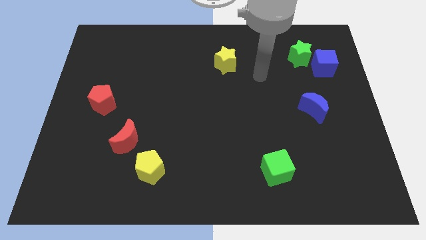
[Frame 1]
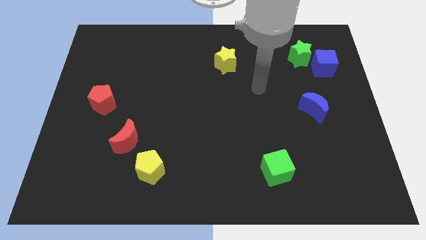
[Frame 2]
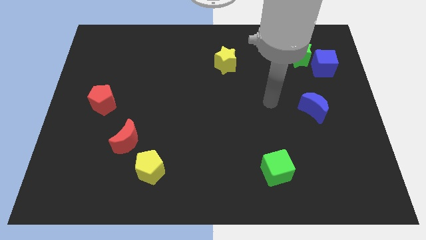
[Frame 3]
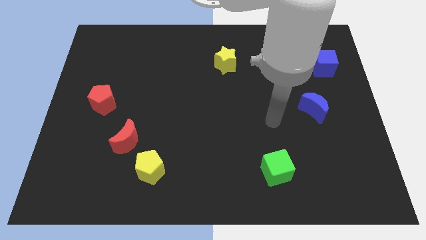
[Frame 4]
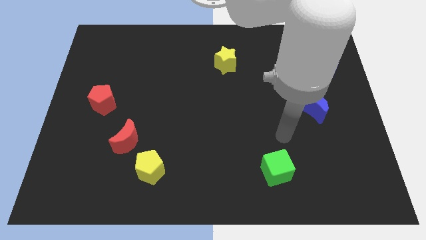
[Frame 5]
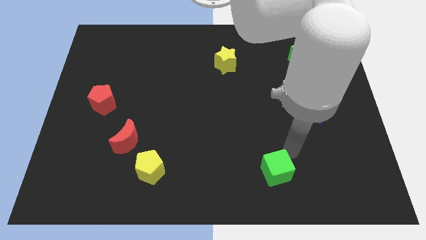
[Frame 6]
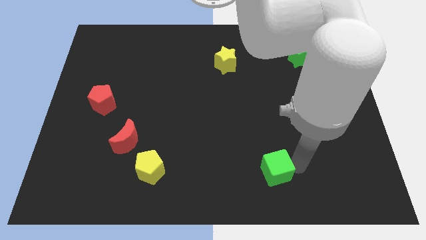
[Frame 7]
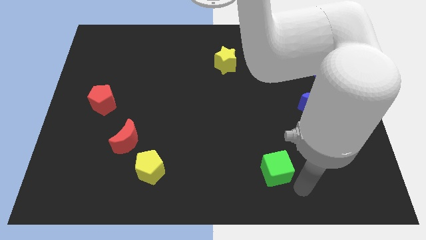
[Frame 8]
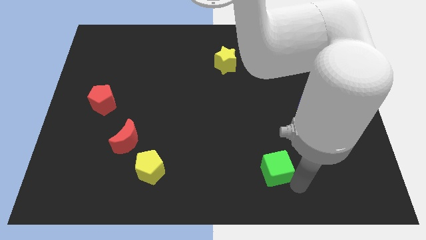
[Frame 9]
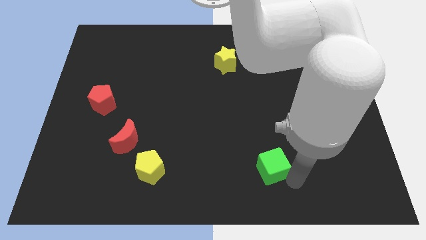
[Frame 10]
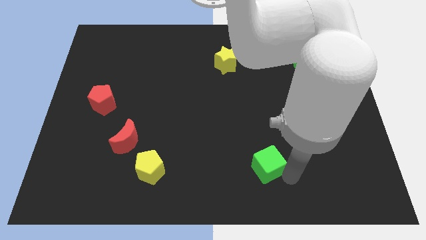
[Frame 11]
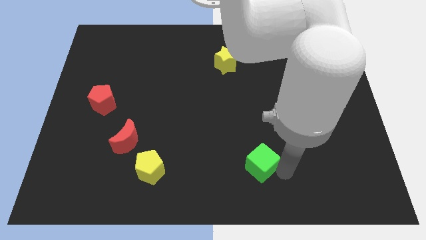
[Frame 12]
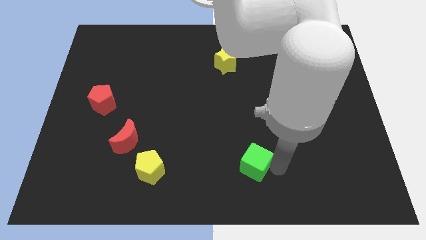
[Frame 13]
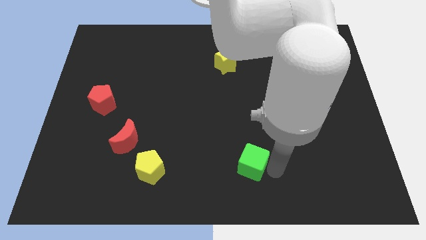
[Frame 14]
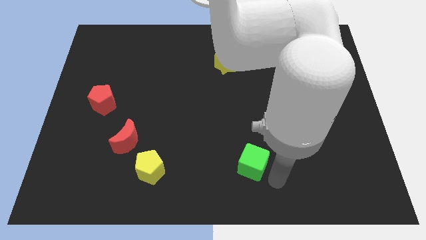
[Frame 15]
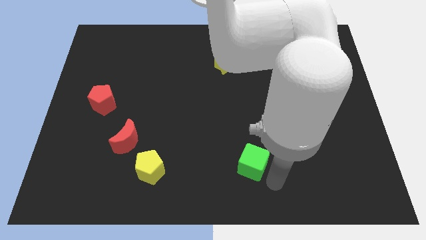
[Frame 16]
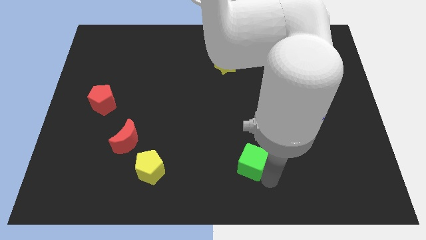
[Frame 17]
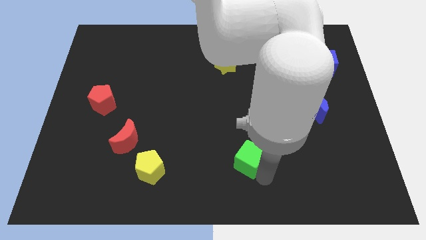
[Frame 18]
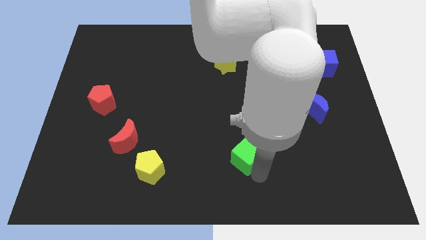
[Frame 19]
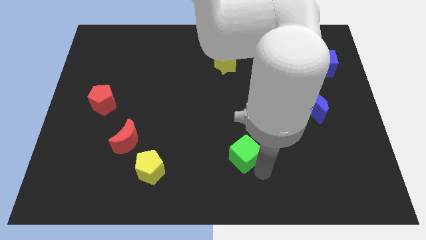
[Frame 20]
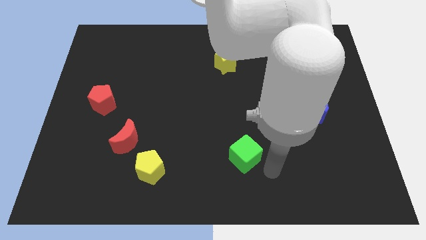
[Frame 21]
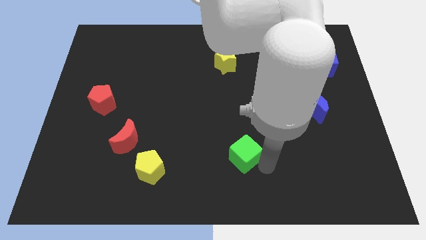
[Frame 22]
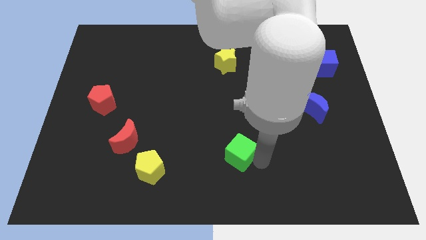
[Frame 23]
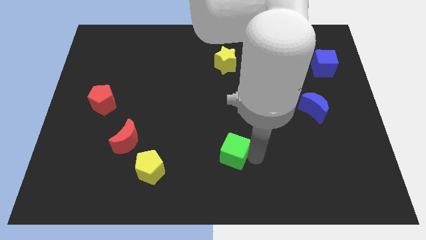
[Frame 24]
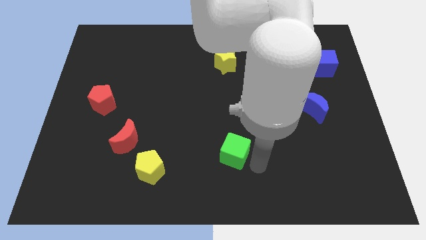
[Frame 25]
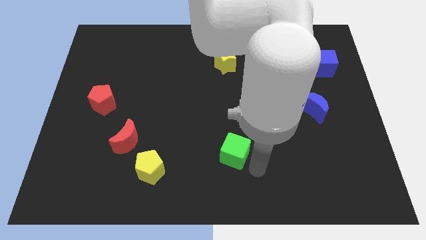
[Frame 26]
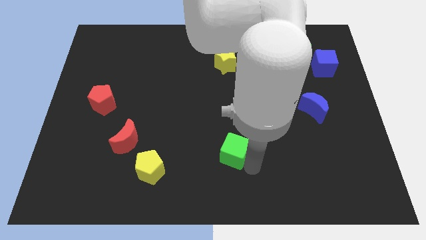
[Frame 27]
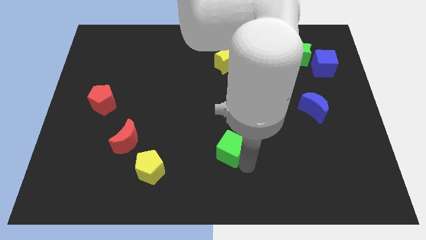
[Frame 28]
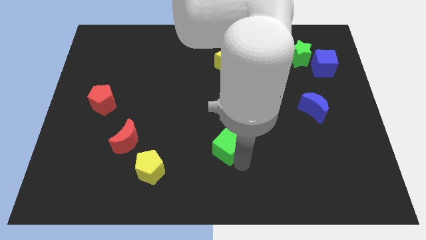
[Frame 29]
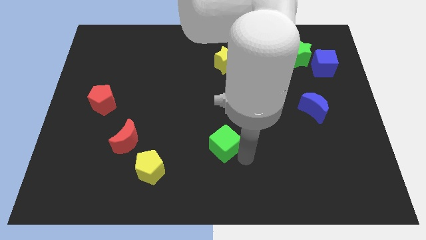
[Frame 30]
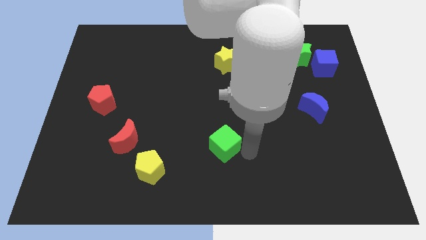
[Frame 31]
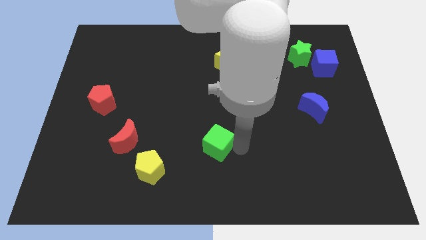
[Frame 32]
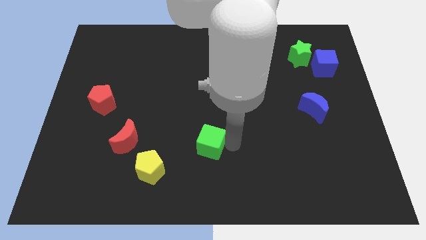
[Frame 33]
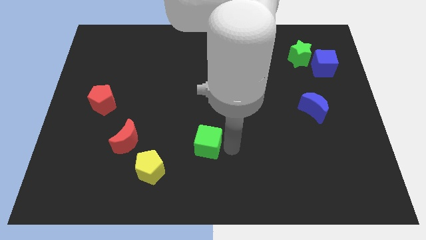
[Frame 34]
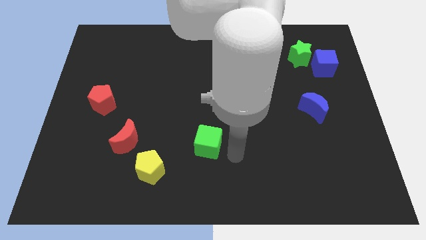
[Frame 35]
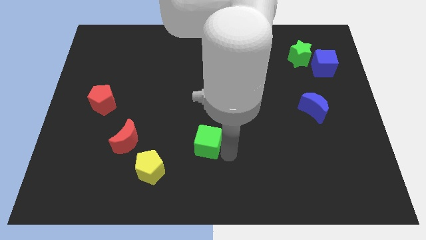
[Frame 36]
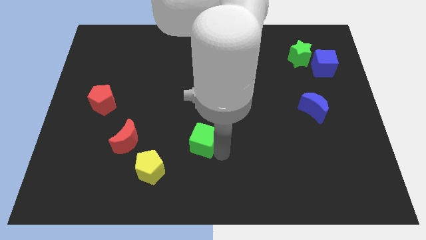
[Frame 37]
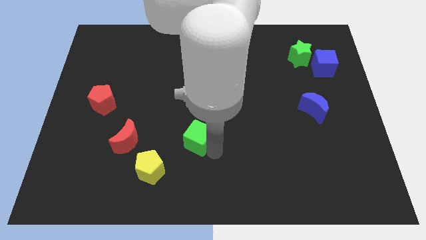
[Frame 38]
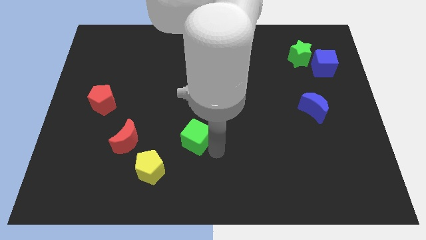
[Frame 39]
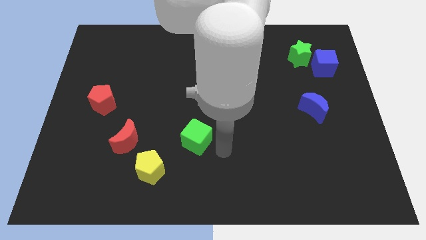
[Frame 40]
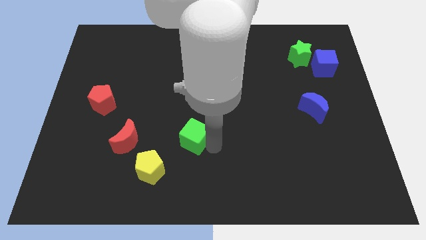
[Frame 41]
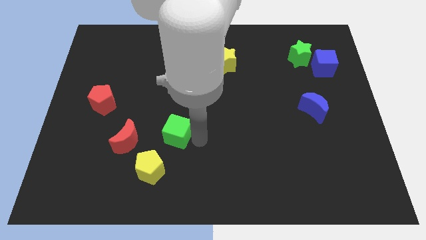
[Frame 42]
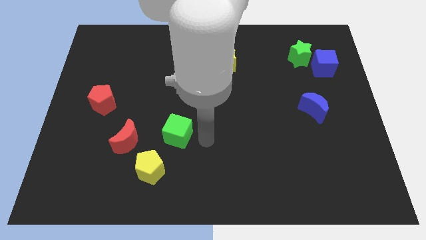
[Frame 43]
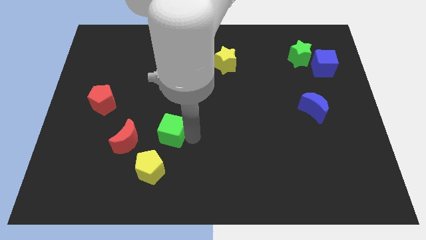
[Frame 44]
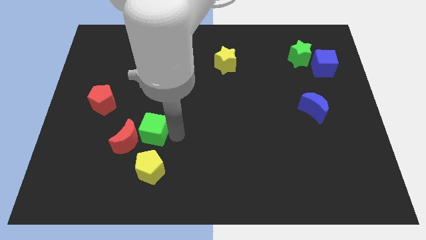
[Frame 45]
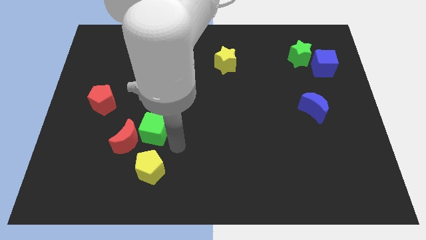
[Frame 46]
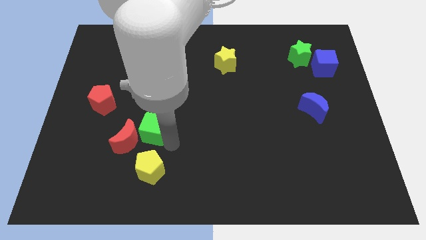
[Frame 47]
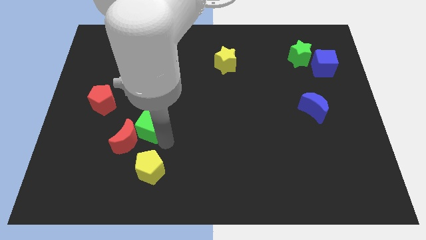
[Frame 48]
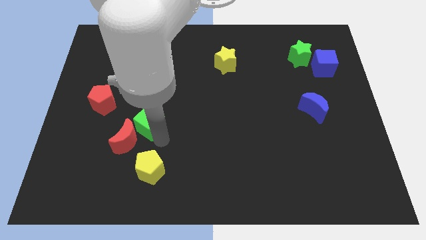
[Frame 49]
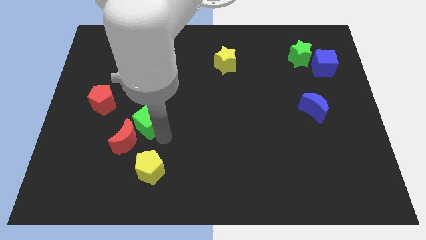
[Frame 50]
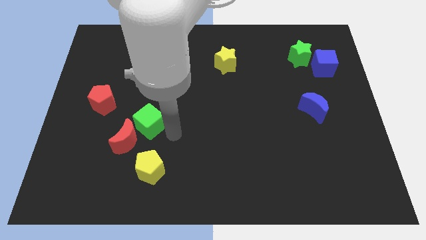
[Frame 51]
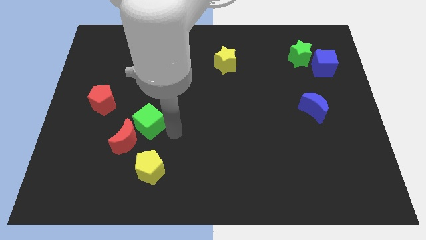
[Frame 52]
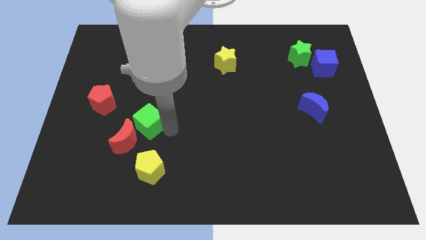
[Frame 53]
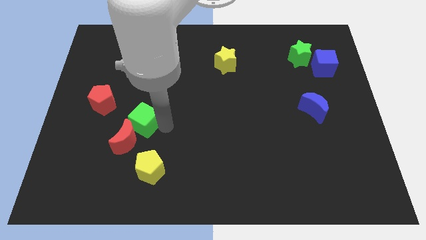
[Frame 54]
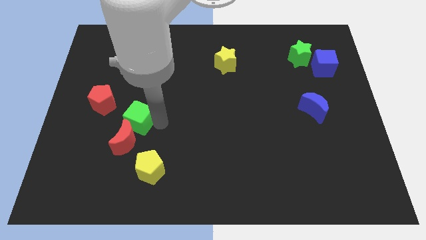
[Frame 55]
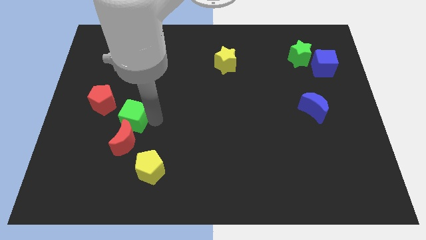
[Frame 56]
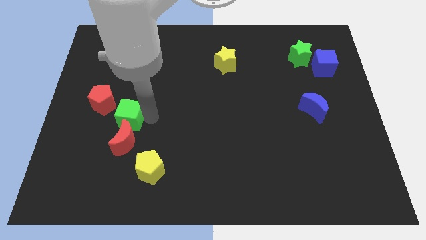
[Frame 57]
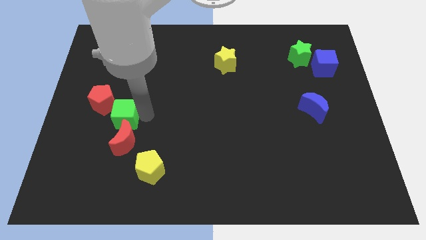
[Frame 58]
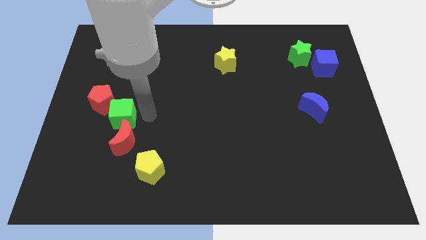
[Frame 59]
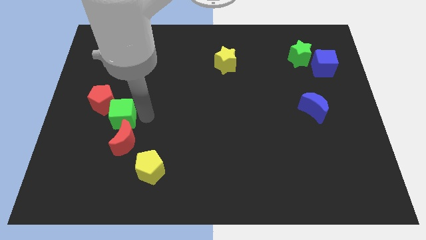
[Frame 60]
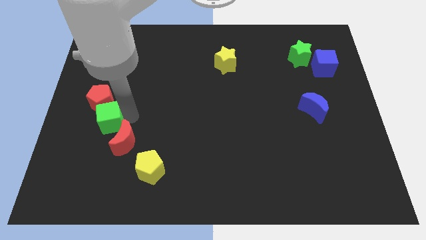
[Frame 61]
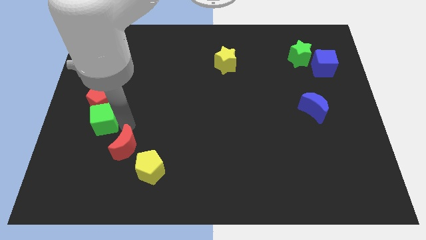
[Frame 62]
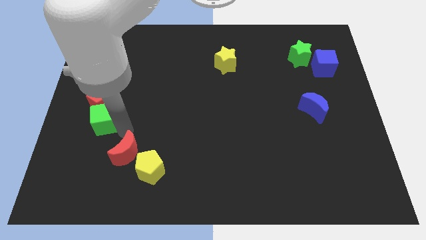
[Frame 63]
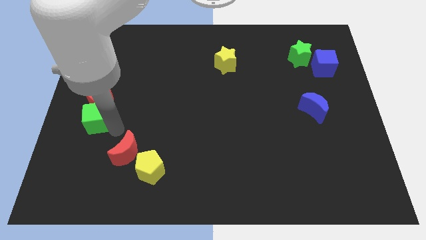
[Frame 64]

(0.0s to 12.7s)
push the green cube to the left side
